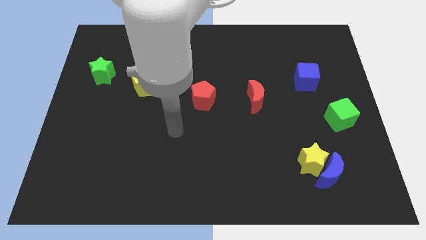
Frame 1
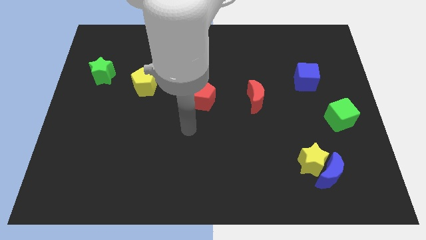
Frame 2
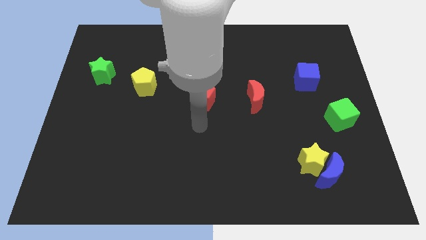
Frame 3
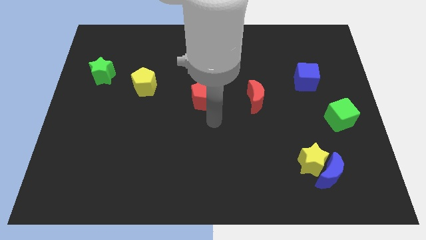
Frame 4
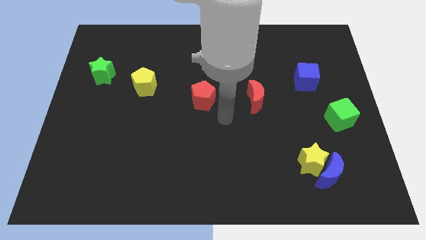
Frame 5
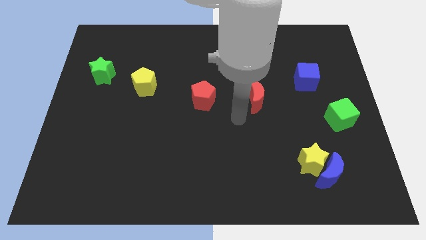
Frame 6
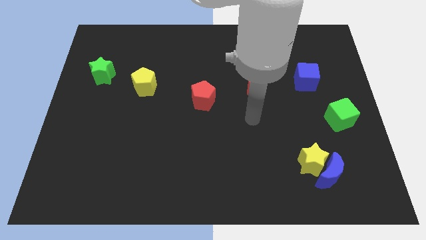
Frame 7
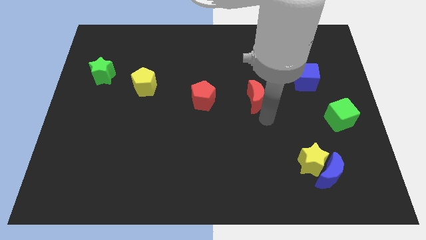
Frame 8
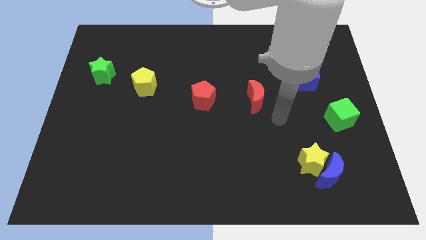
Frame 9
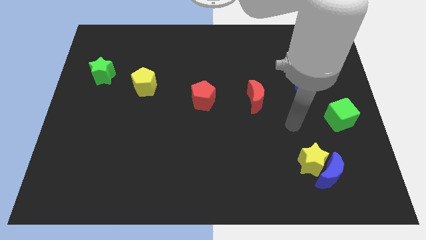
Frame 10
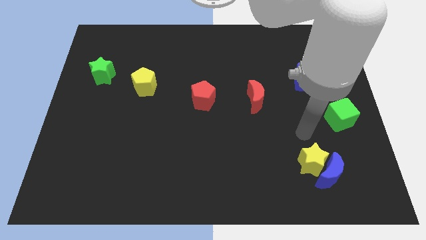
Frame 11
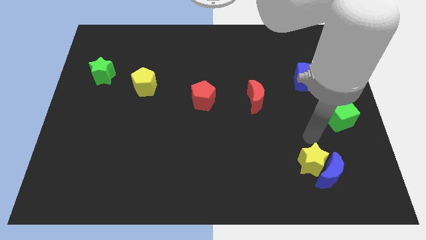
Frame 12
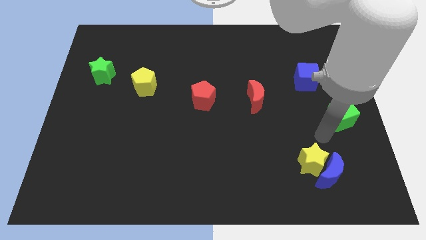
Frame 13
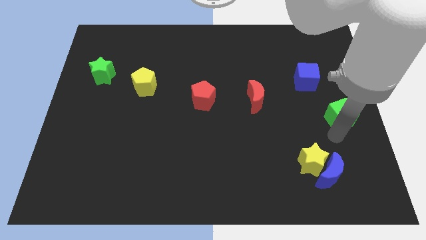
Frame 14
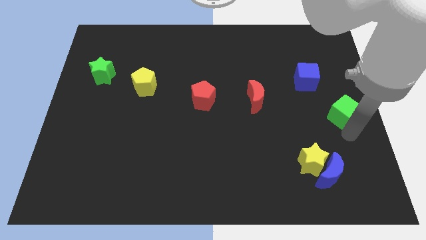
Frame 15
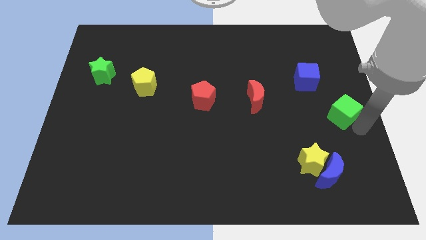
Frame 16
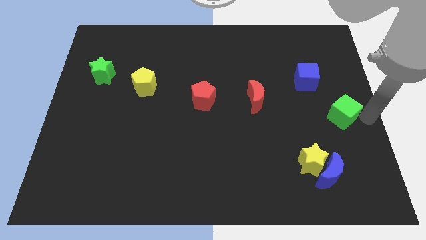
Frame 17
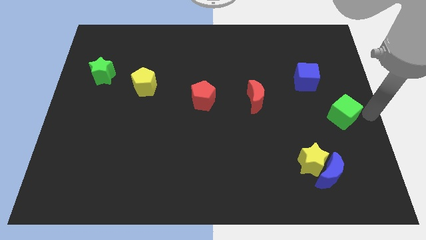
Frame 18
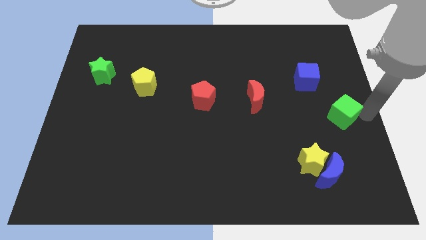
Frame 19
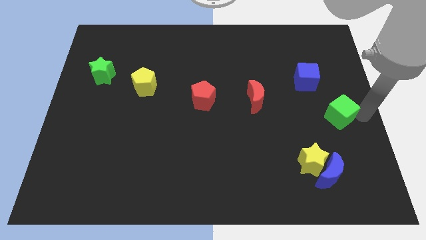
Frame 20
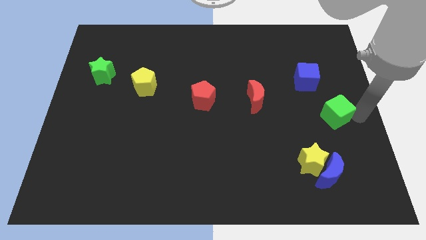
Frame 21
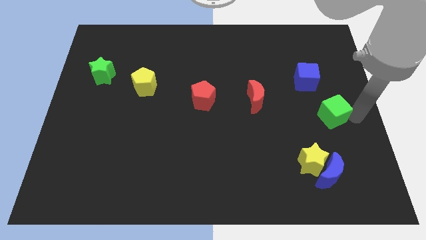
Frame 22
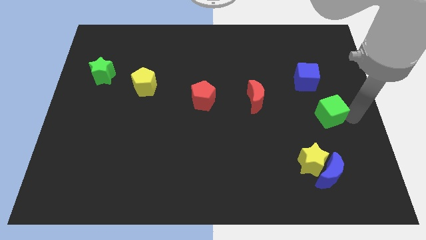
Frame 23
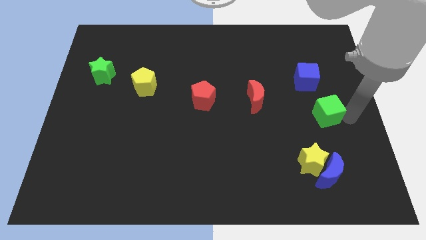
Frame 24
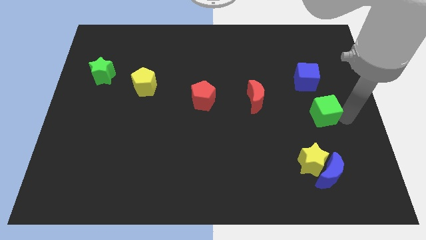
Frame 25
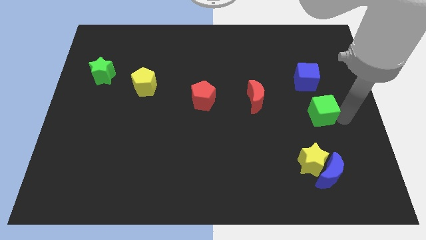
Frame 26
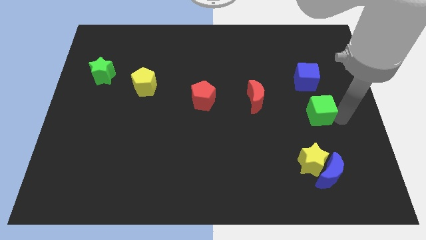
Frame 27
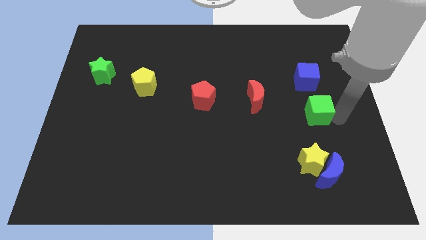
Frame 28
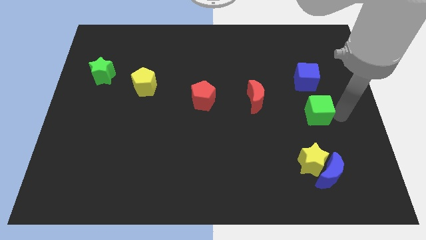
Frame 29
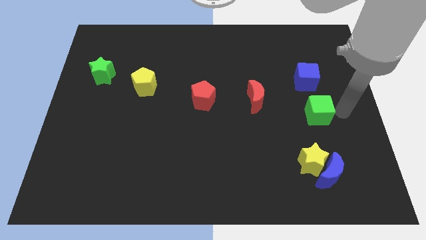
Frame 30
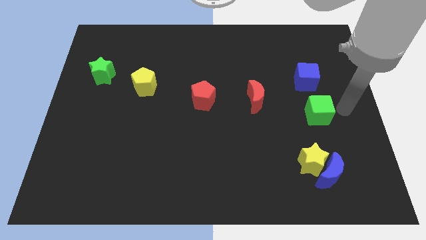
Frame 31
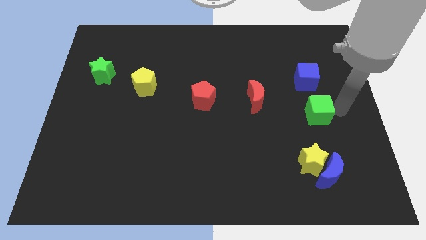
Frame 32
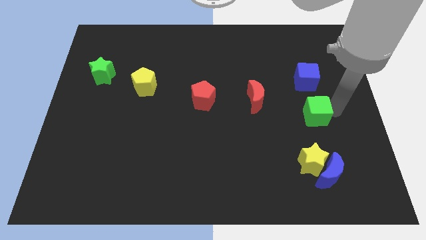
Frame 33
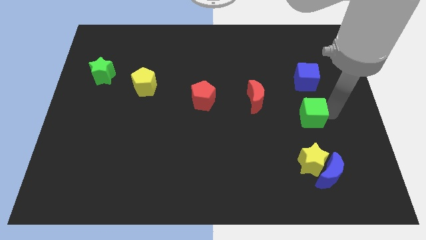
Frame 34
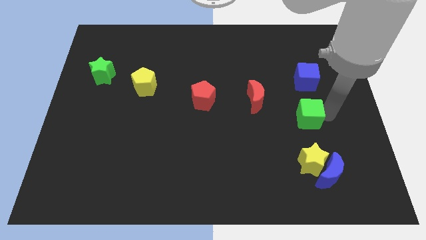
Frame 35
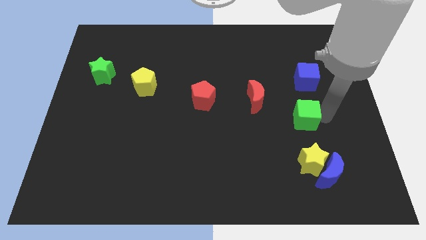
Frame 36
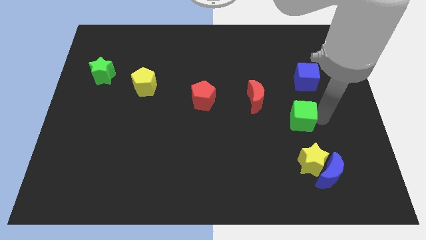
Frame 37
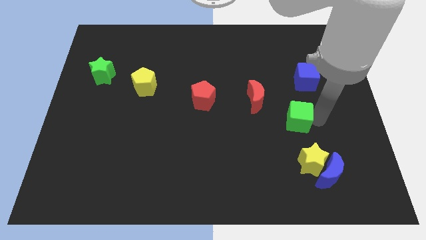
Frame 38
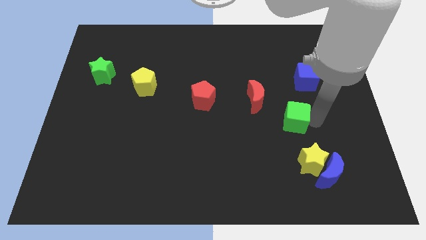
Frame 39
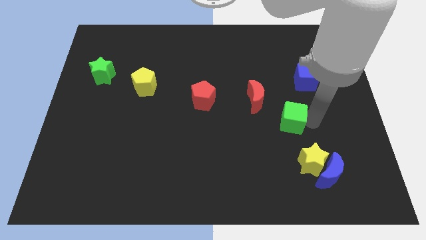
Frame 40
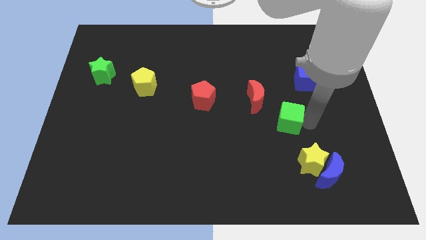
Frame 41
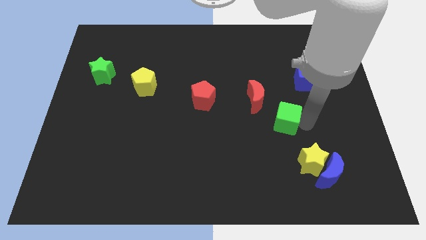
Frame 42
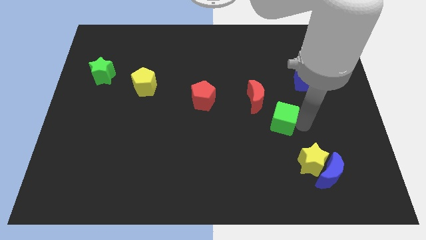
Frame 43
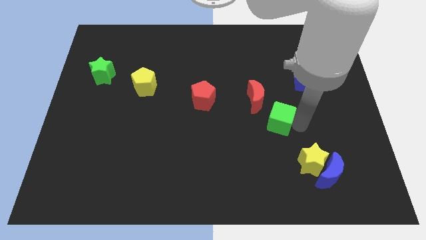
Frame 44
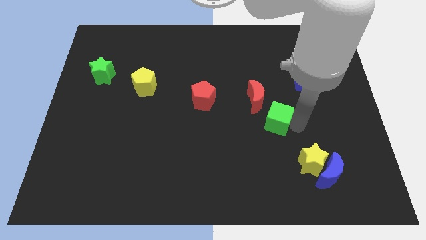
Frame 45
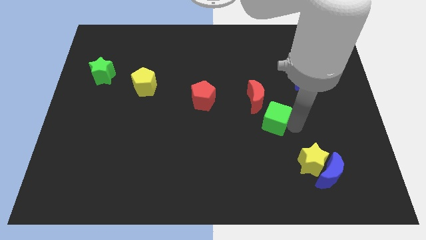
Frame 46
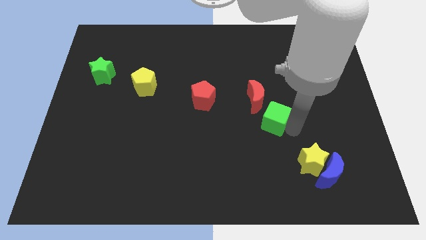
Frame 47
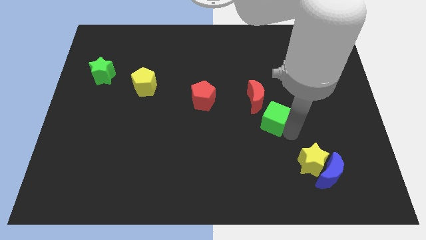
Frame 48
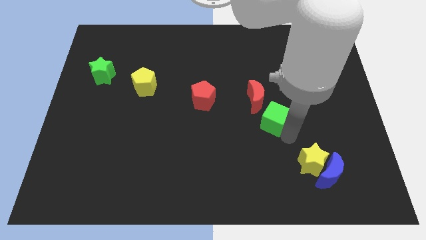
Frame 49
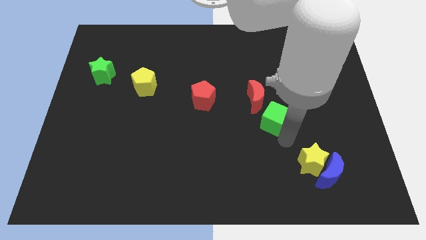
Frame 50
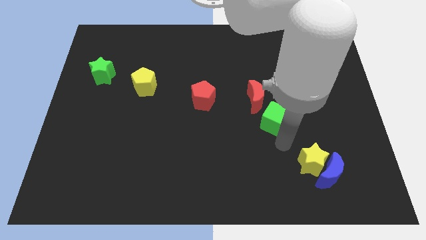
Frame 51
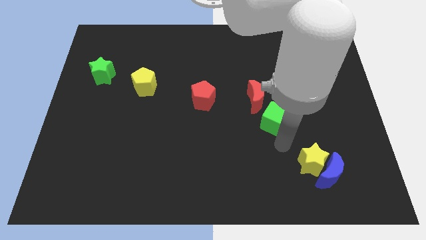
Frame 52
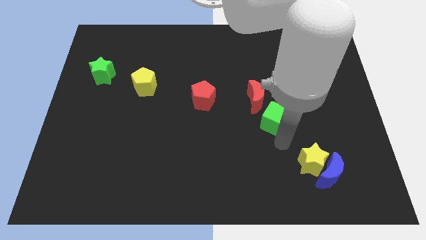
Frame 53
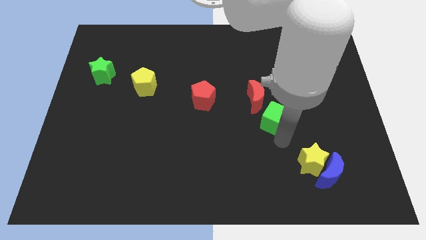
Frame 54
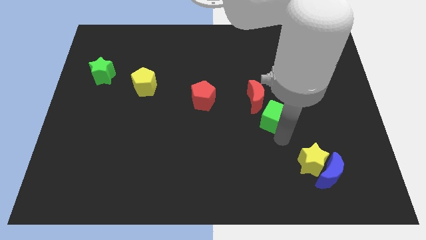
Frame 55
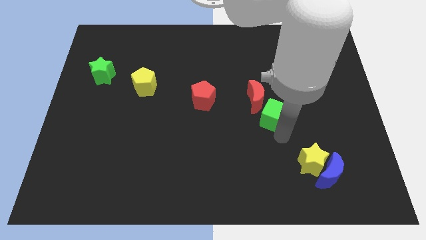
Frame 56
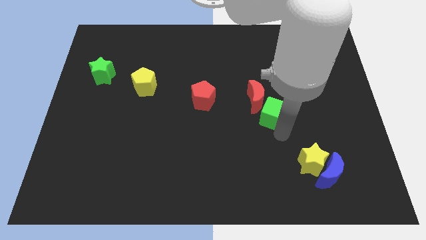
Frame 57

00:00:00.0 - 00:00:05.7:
slide the green cube next to the red moon

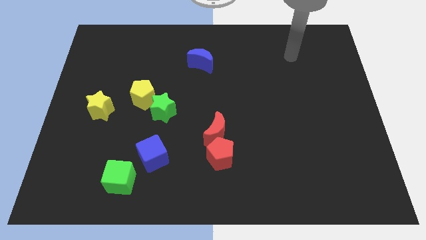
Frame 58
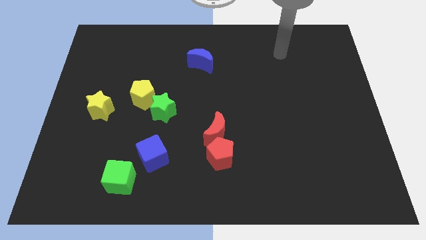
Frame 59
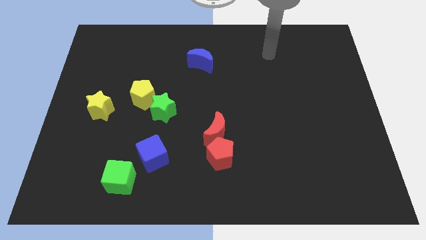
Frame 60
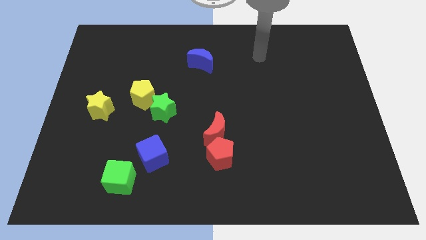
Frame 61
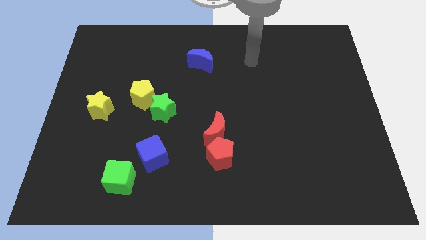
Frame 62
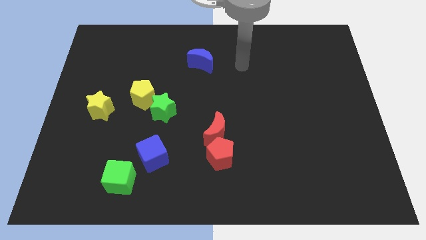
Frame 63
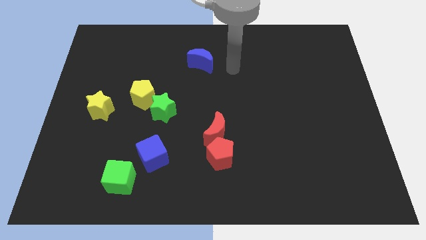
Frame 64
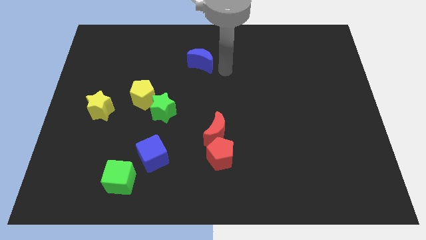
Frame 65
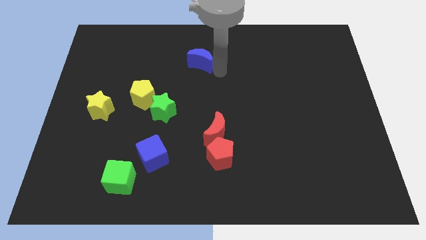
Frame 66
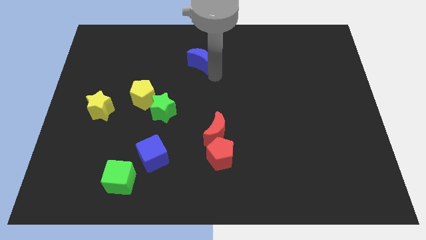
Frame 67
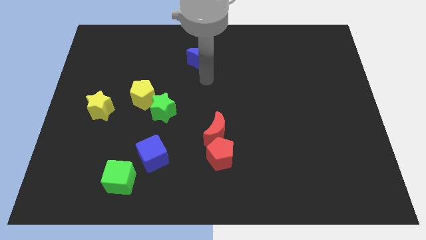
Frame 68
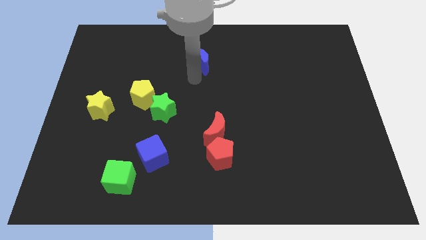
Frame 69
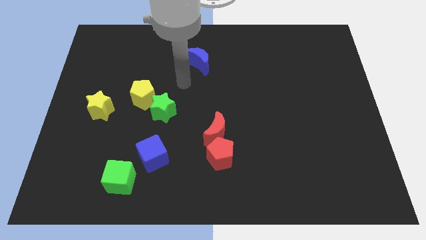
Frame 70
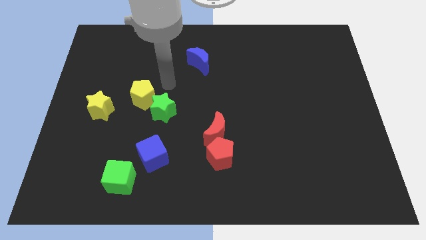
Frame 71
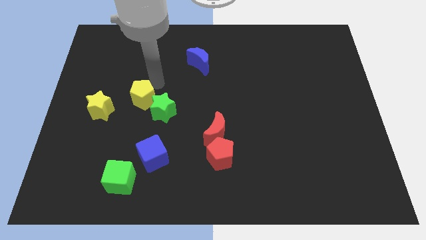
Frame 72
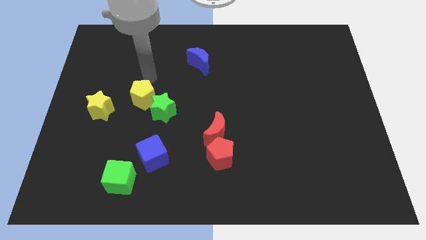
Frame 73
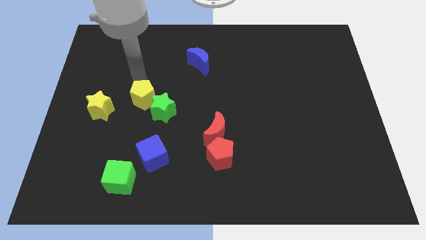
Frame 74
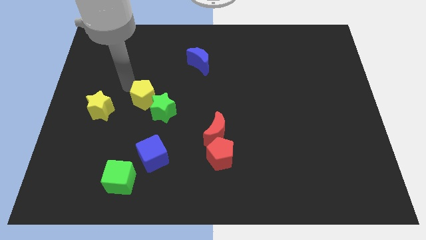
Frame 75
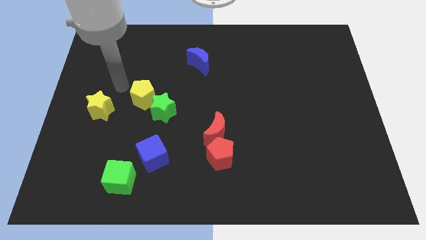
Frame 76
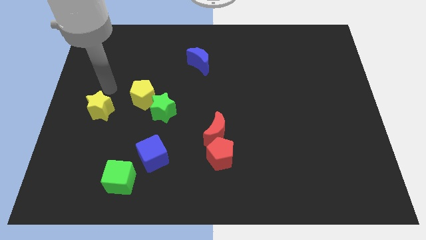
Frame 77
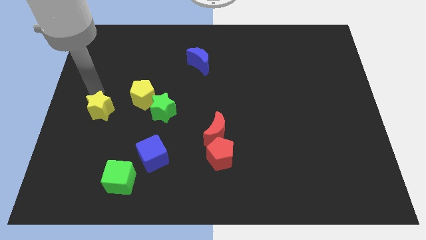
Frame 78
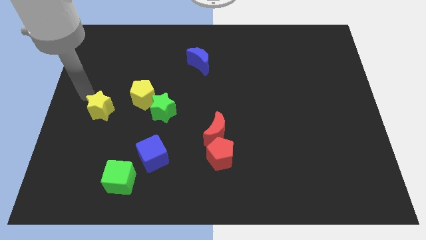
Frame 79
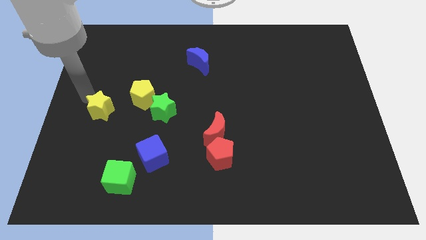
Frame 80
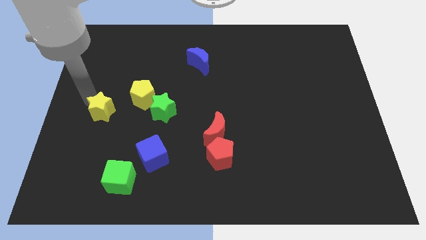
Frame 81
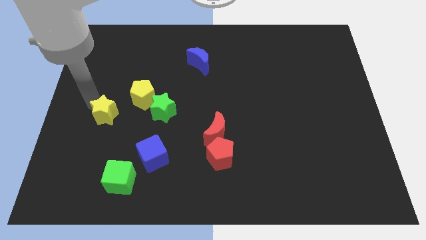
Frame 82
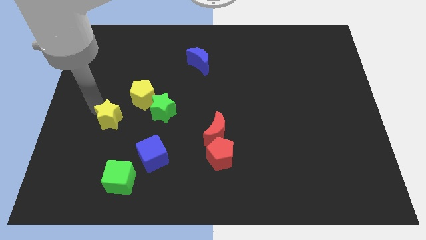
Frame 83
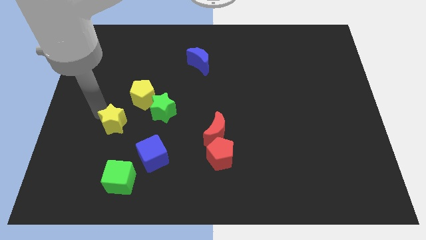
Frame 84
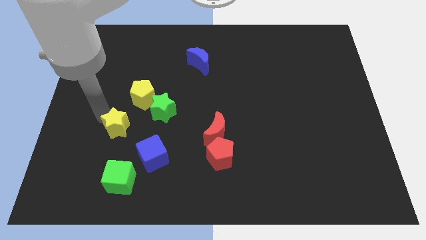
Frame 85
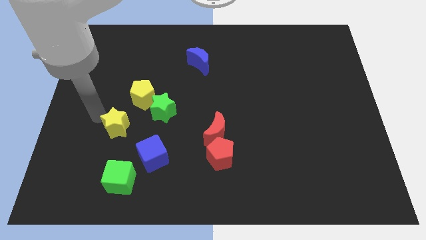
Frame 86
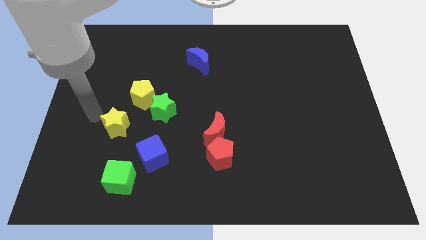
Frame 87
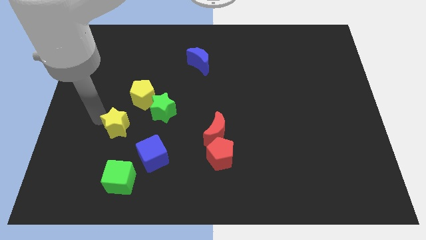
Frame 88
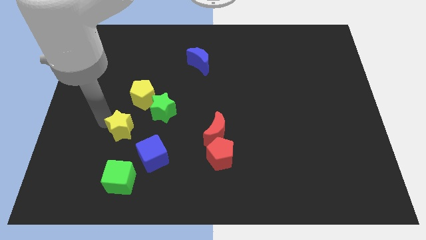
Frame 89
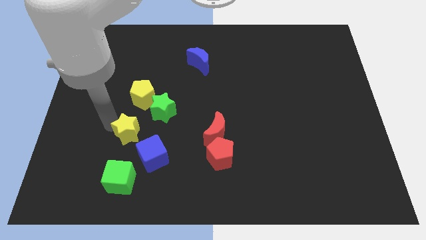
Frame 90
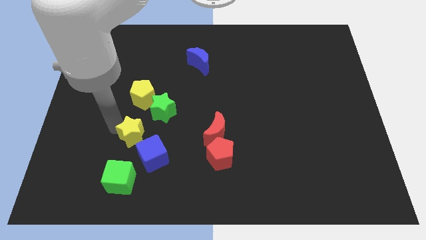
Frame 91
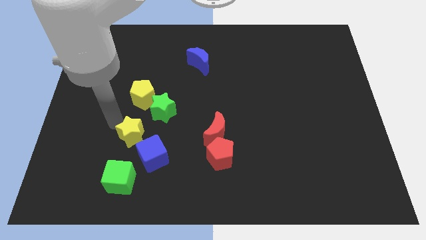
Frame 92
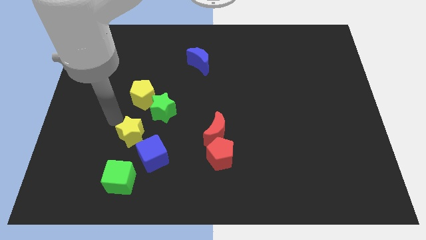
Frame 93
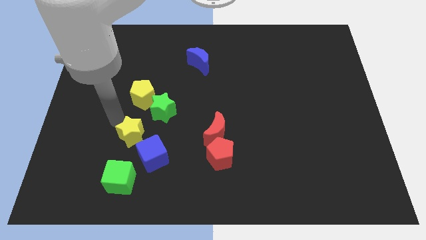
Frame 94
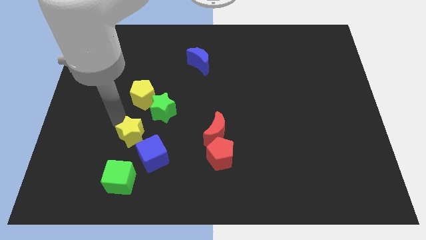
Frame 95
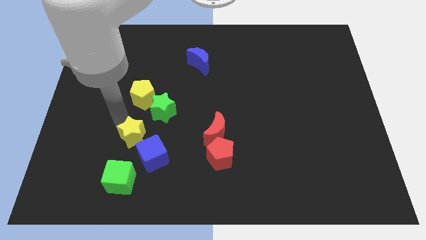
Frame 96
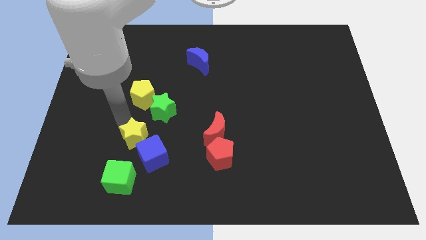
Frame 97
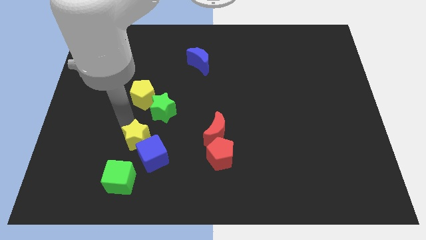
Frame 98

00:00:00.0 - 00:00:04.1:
slide the yellow star to the blue cube
